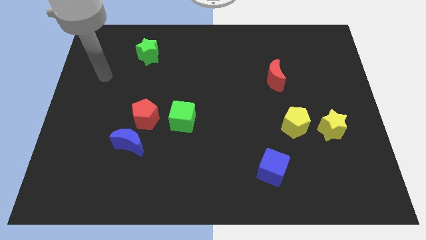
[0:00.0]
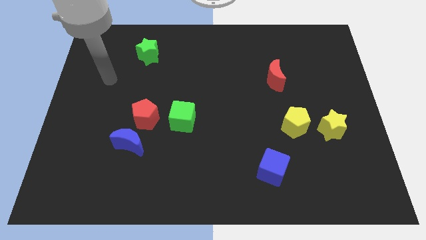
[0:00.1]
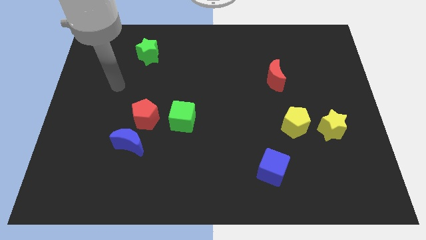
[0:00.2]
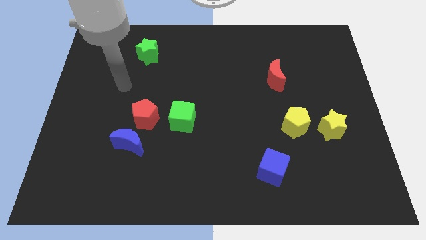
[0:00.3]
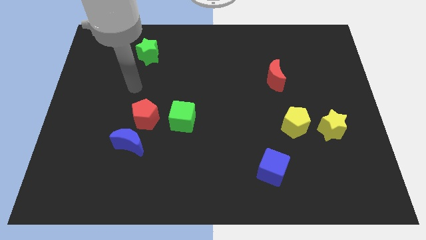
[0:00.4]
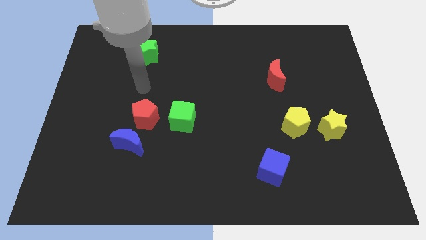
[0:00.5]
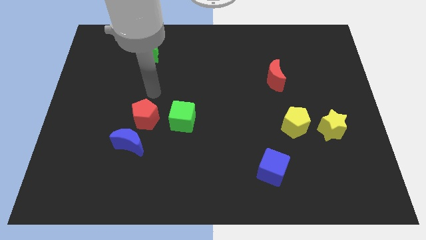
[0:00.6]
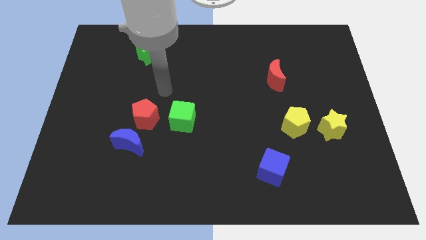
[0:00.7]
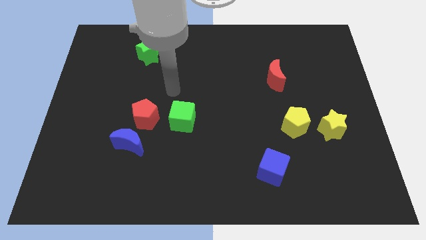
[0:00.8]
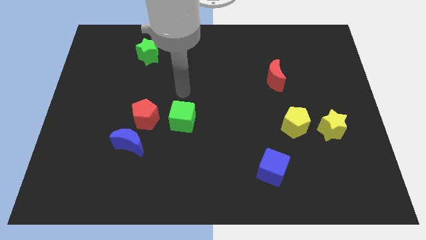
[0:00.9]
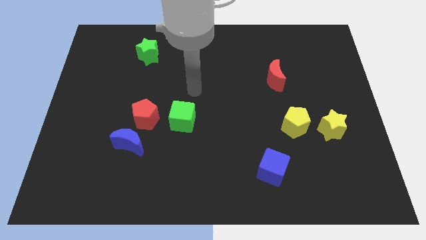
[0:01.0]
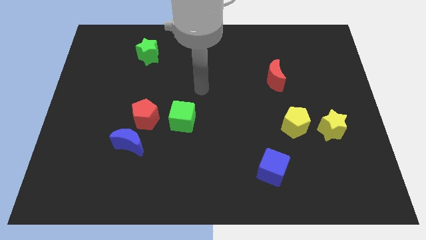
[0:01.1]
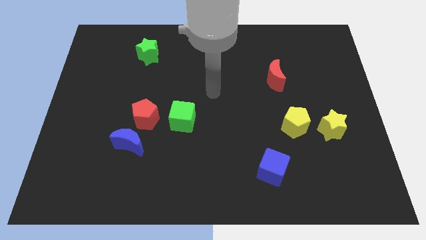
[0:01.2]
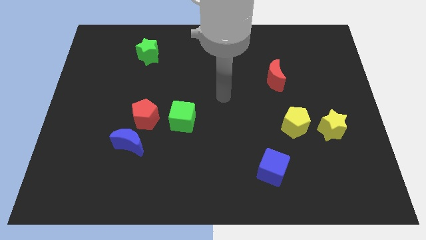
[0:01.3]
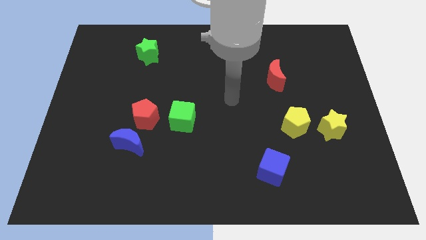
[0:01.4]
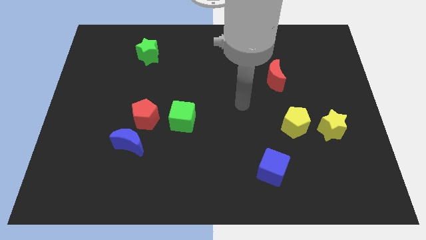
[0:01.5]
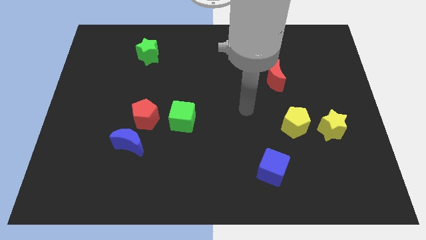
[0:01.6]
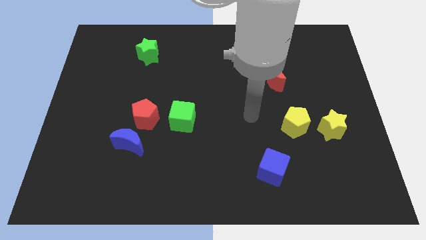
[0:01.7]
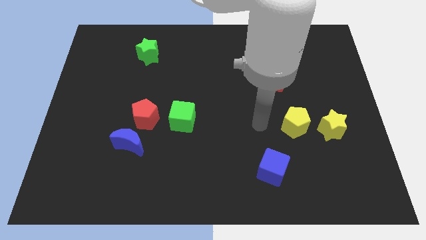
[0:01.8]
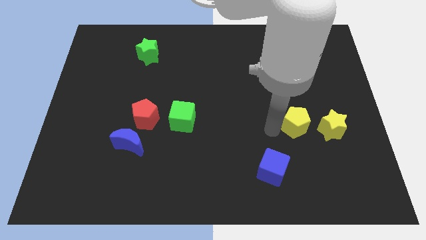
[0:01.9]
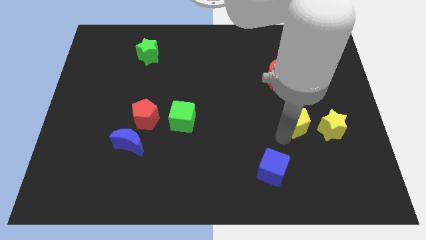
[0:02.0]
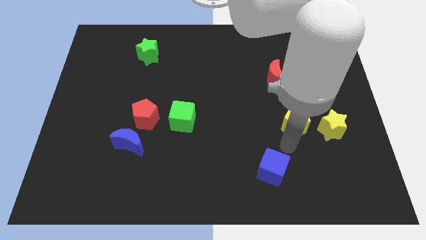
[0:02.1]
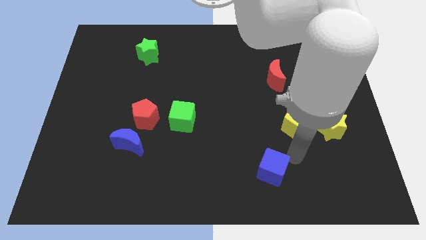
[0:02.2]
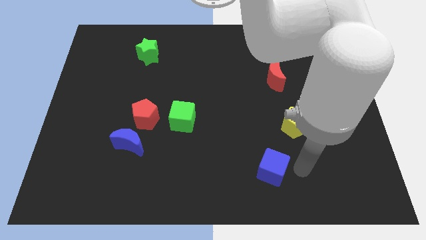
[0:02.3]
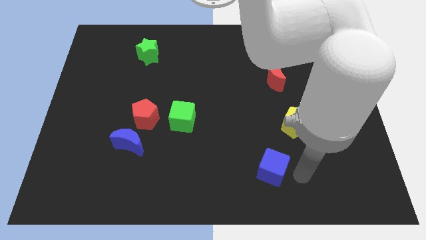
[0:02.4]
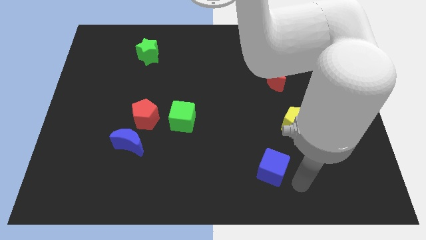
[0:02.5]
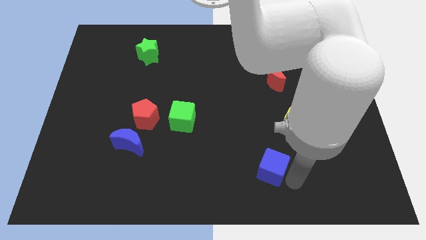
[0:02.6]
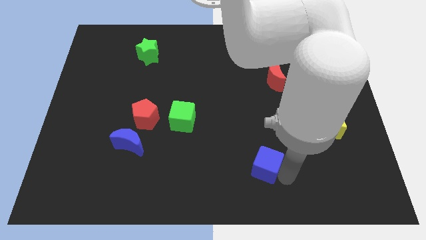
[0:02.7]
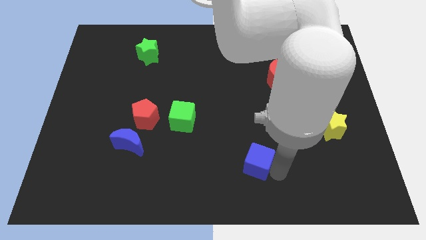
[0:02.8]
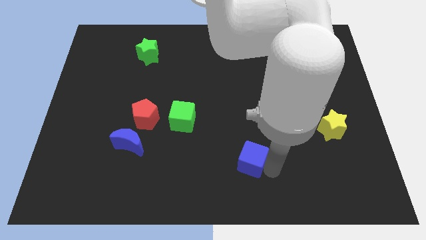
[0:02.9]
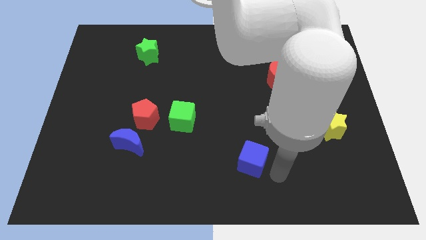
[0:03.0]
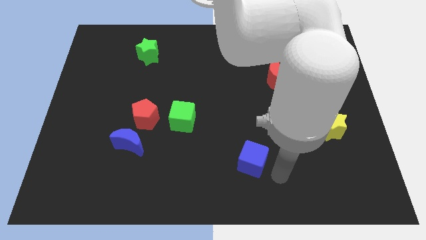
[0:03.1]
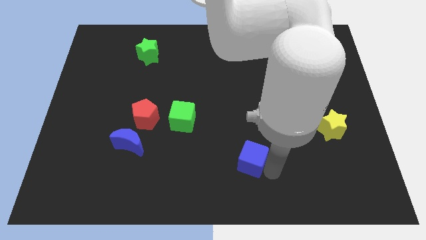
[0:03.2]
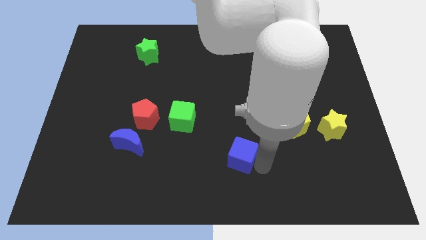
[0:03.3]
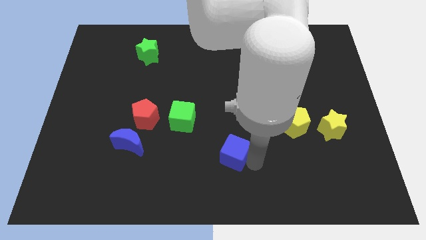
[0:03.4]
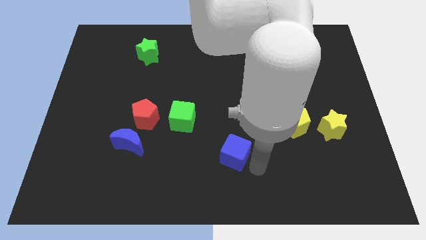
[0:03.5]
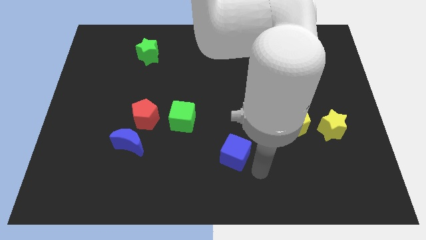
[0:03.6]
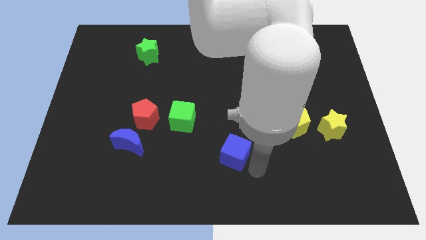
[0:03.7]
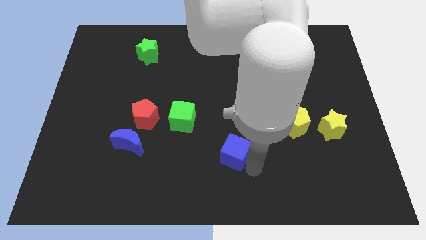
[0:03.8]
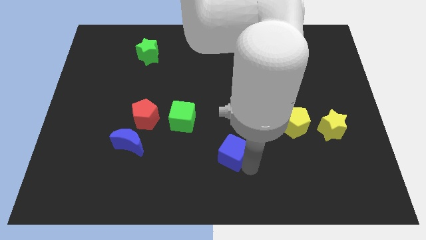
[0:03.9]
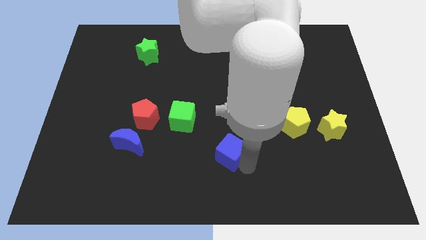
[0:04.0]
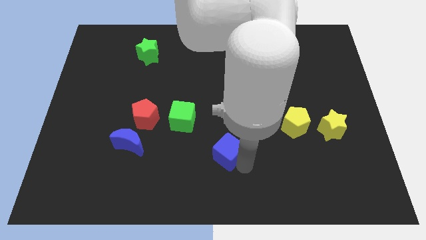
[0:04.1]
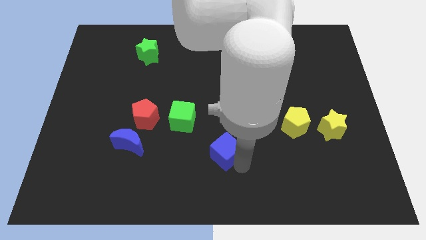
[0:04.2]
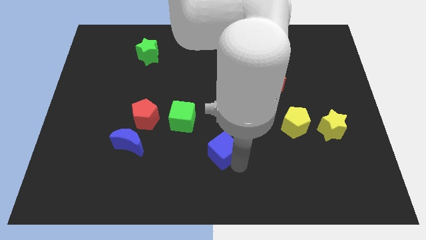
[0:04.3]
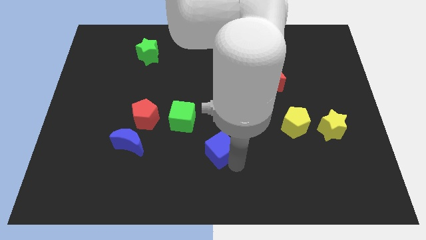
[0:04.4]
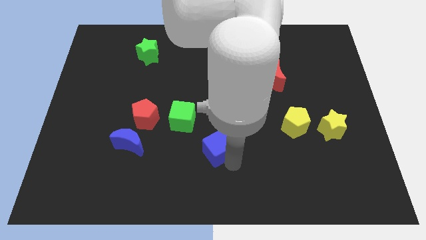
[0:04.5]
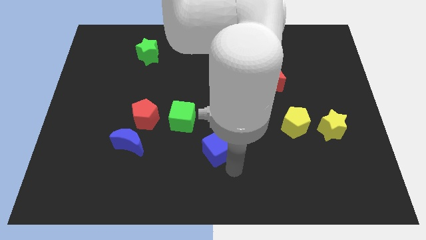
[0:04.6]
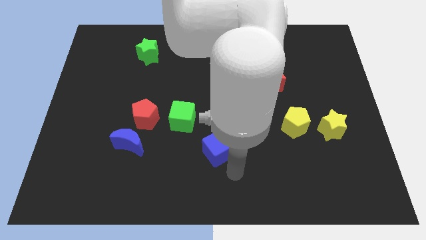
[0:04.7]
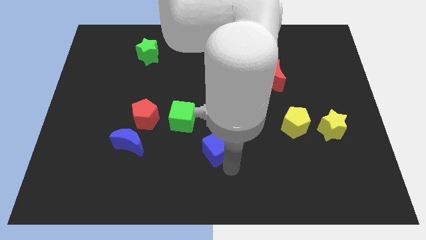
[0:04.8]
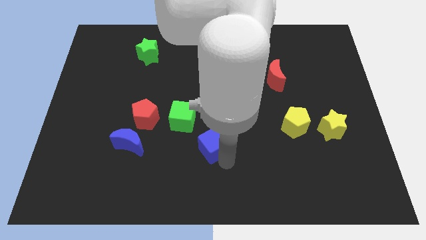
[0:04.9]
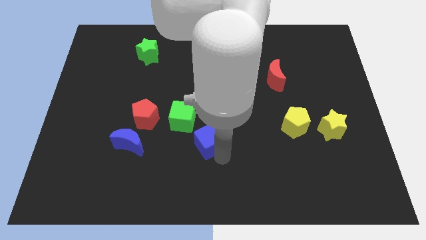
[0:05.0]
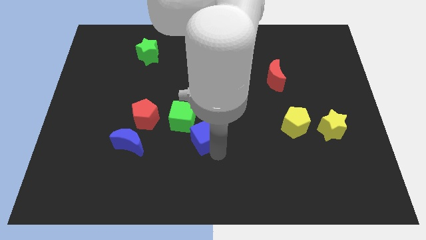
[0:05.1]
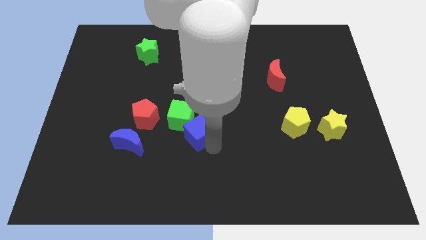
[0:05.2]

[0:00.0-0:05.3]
slide the blue cube towards the green cube

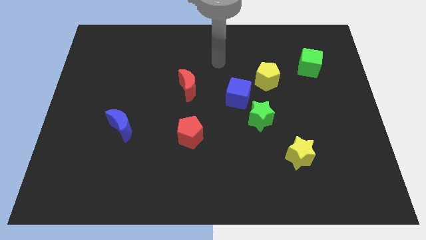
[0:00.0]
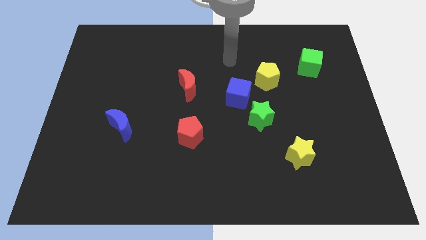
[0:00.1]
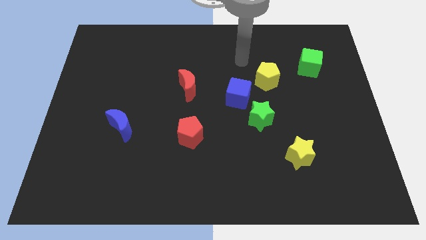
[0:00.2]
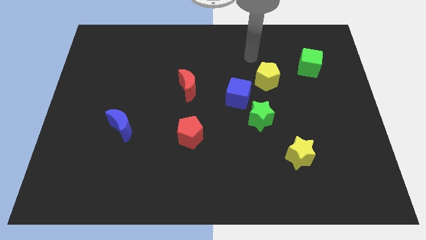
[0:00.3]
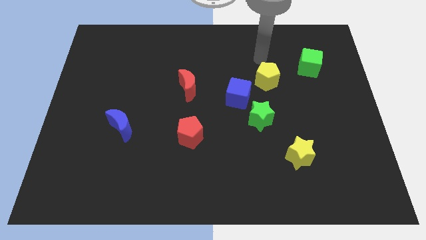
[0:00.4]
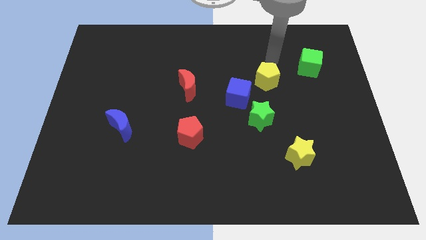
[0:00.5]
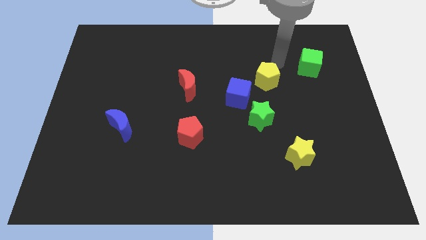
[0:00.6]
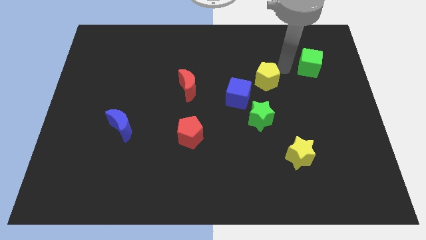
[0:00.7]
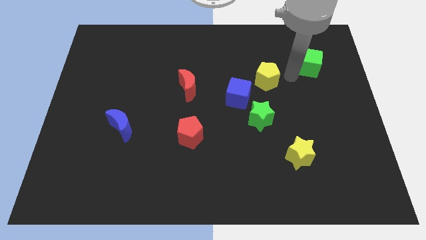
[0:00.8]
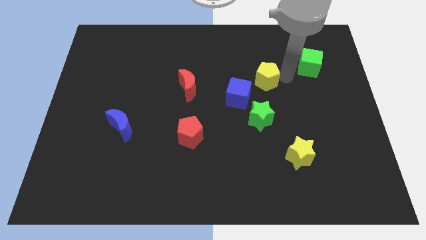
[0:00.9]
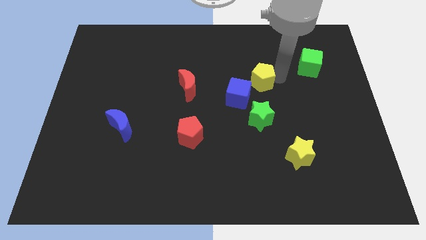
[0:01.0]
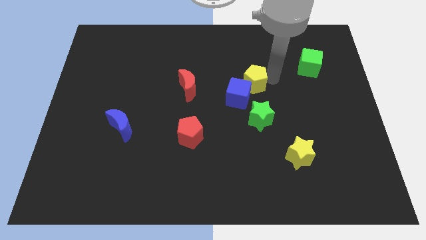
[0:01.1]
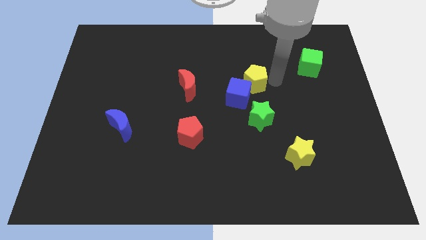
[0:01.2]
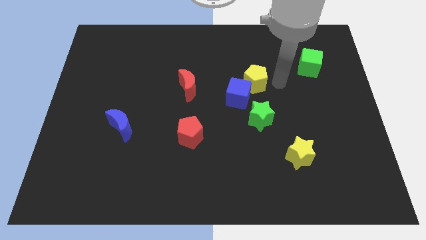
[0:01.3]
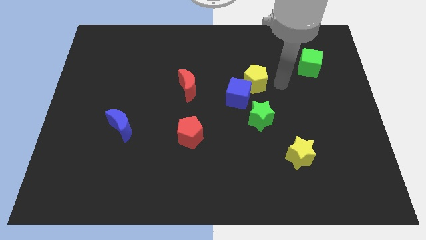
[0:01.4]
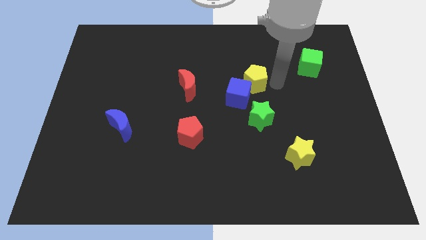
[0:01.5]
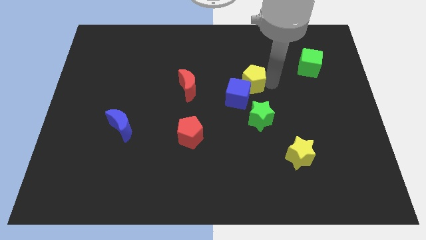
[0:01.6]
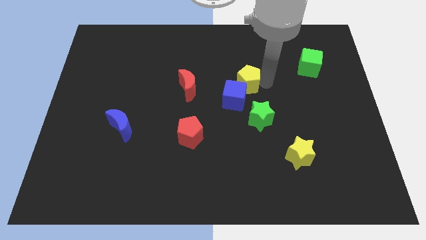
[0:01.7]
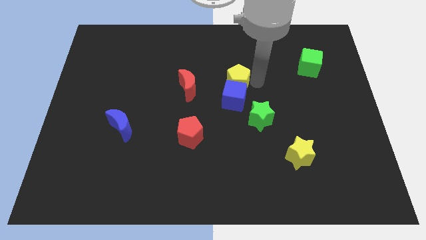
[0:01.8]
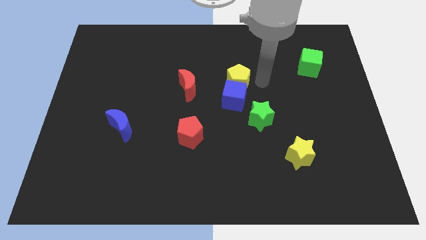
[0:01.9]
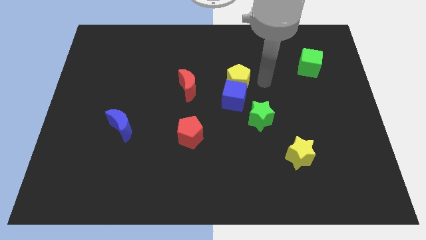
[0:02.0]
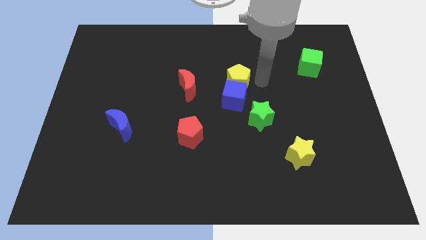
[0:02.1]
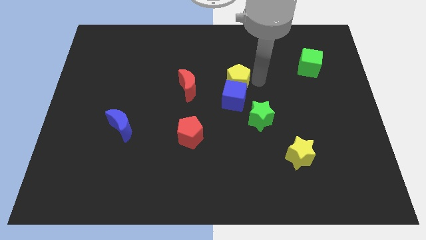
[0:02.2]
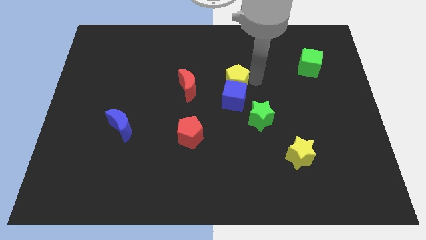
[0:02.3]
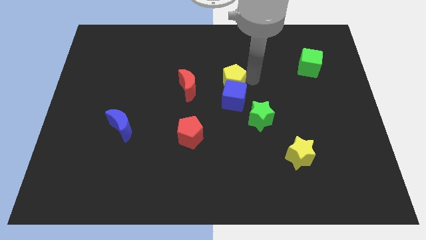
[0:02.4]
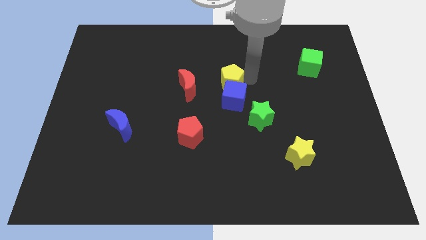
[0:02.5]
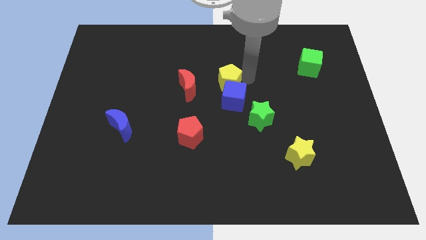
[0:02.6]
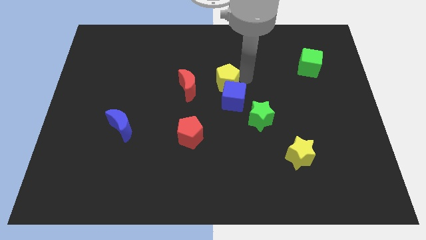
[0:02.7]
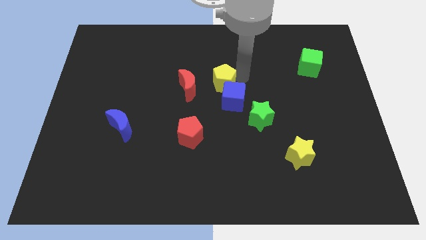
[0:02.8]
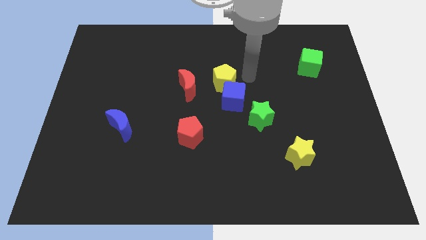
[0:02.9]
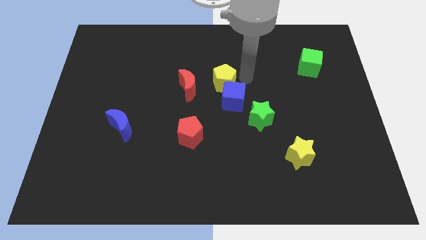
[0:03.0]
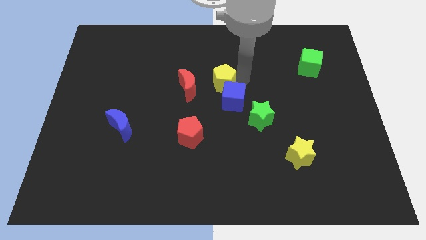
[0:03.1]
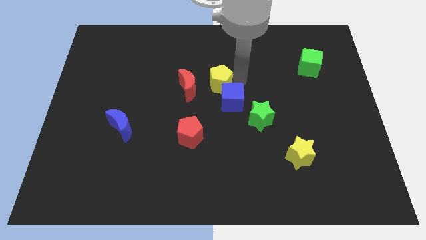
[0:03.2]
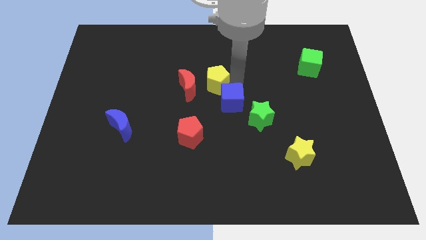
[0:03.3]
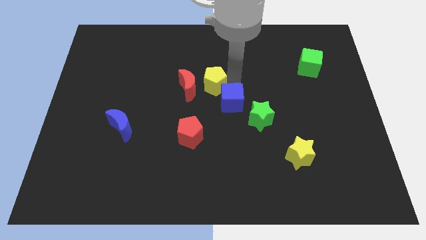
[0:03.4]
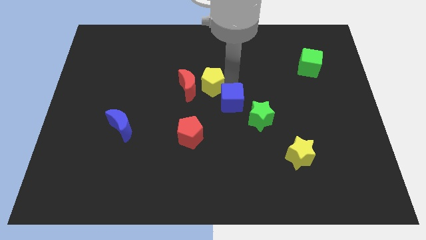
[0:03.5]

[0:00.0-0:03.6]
put the yellow pentagon to the red moon
